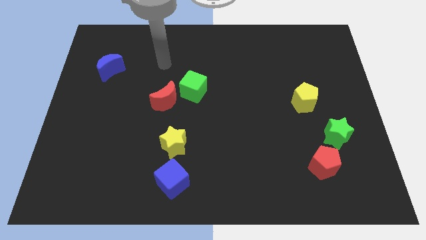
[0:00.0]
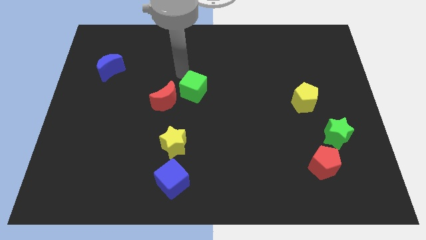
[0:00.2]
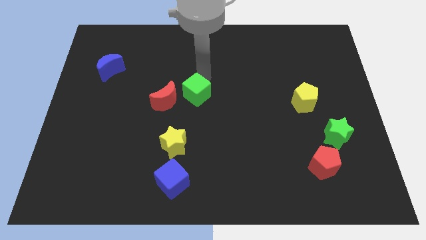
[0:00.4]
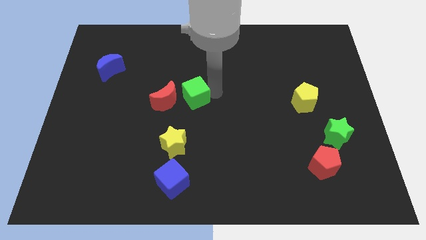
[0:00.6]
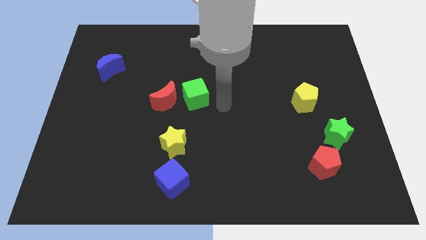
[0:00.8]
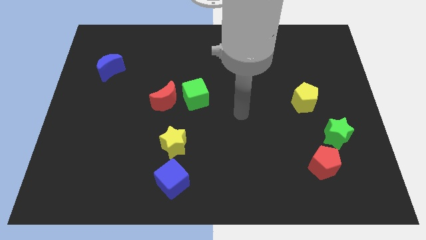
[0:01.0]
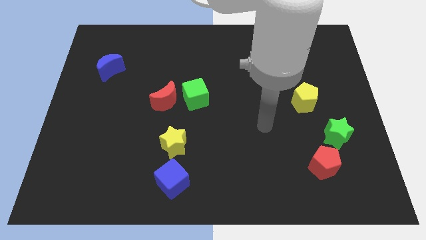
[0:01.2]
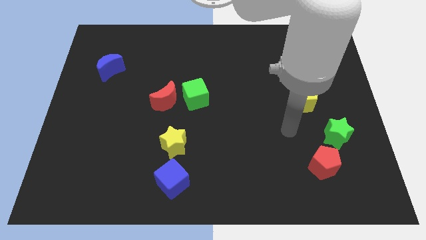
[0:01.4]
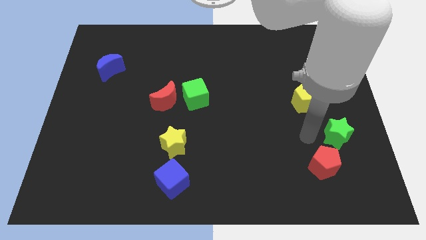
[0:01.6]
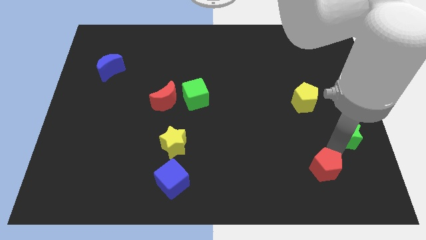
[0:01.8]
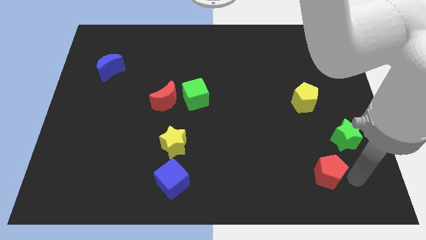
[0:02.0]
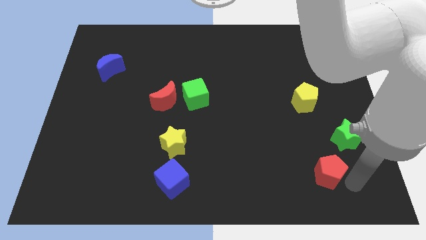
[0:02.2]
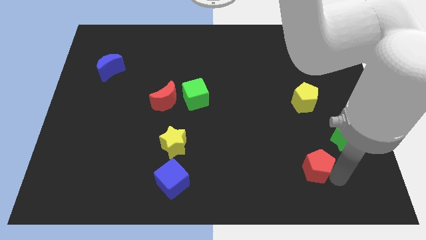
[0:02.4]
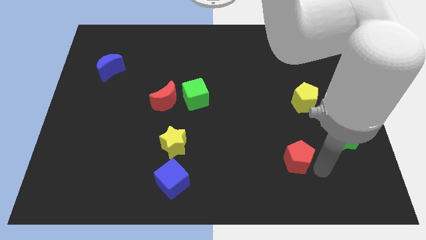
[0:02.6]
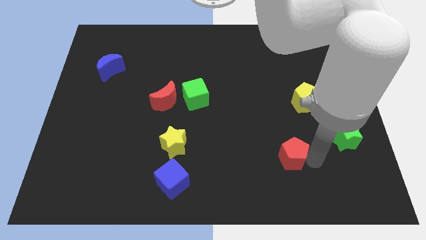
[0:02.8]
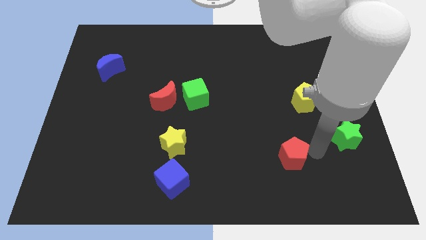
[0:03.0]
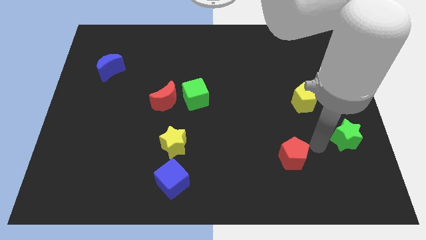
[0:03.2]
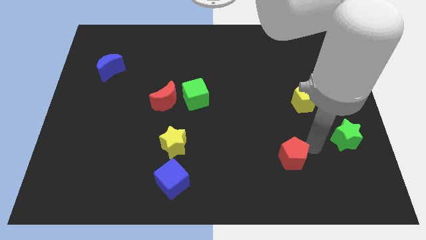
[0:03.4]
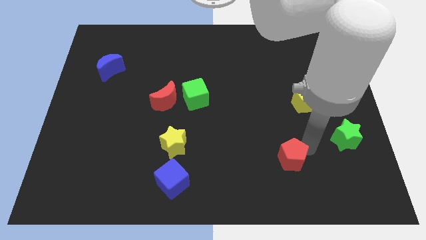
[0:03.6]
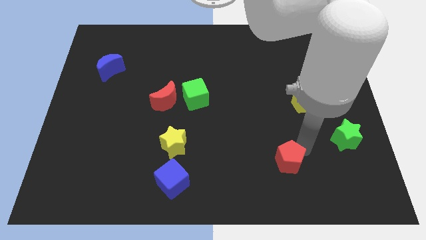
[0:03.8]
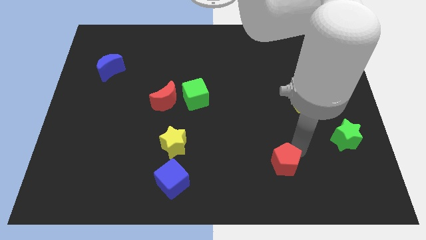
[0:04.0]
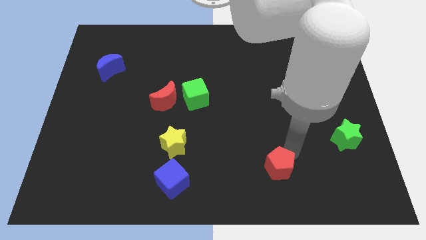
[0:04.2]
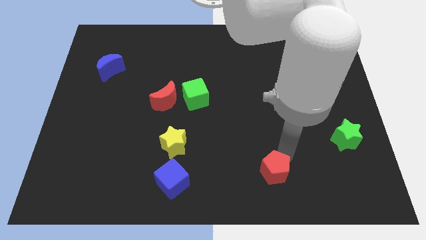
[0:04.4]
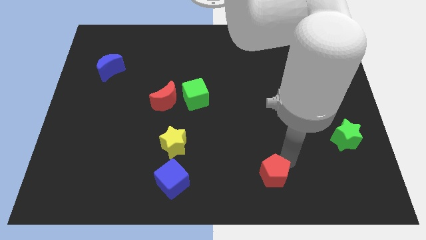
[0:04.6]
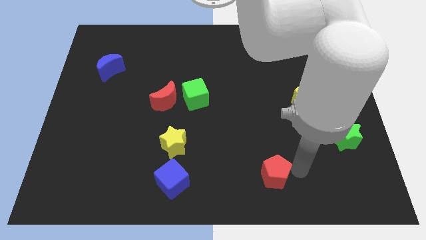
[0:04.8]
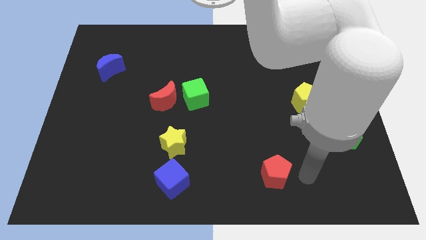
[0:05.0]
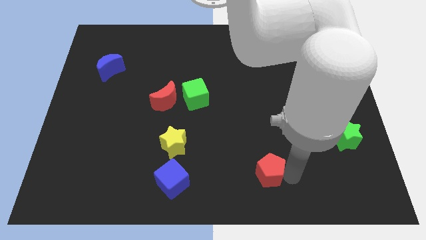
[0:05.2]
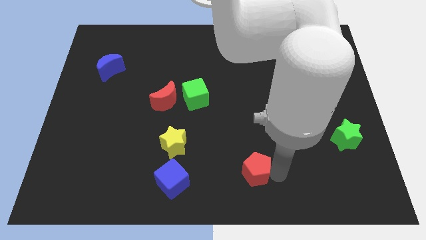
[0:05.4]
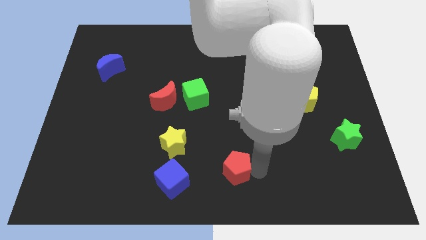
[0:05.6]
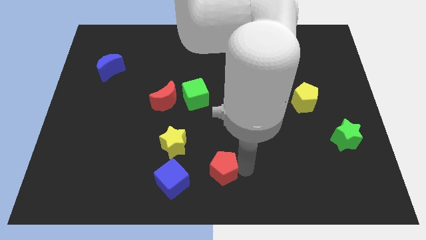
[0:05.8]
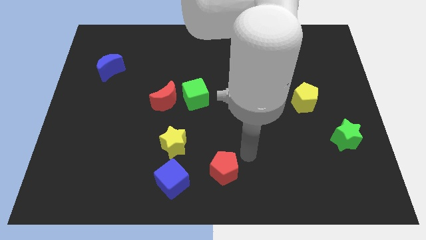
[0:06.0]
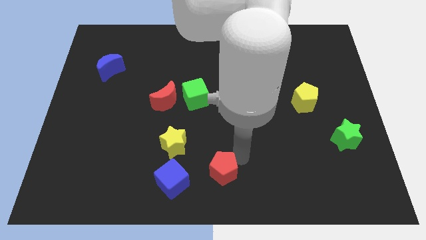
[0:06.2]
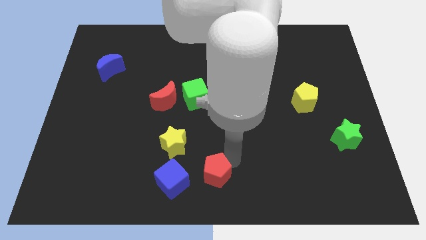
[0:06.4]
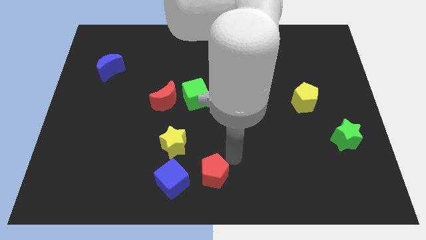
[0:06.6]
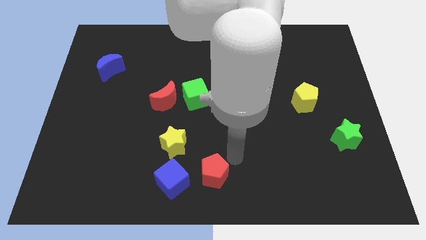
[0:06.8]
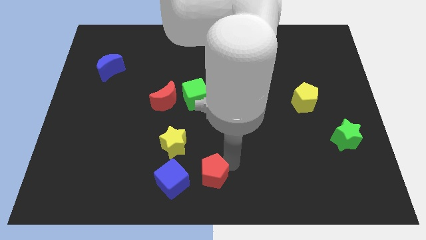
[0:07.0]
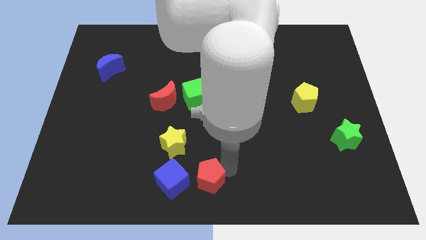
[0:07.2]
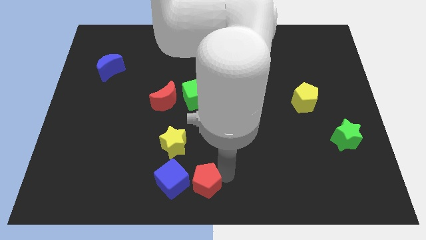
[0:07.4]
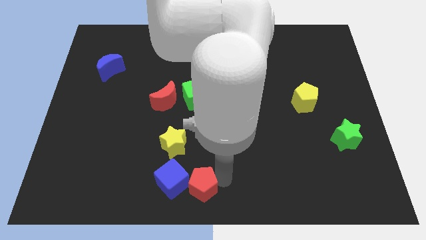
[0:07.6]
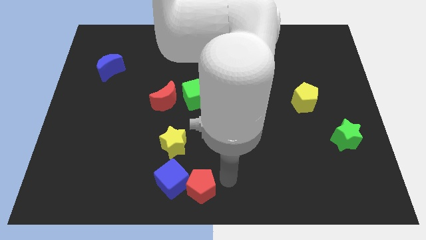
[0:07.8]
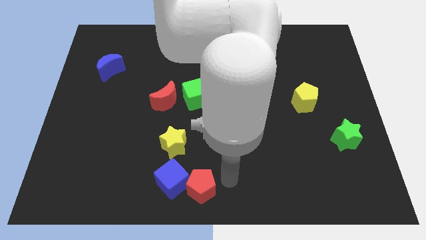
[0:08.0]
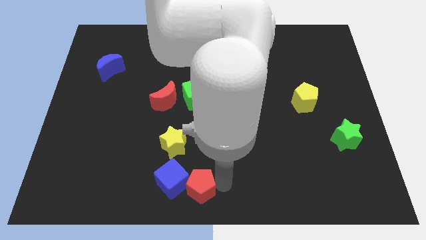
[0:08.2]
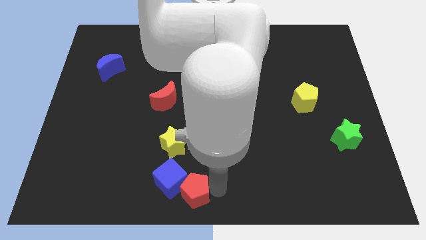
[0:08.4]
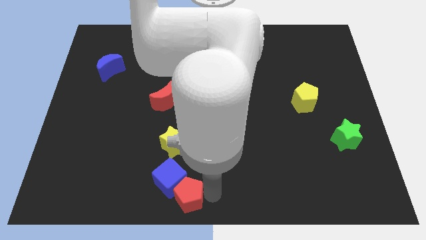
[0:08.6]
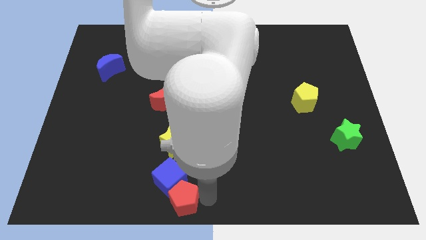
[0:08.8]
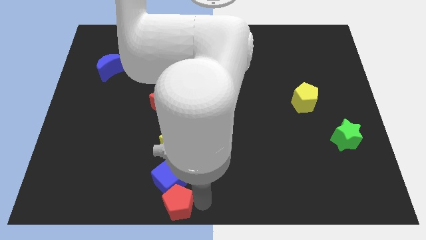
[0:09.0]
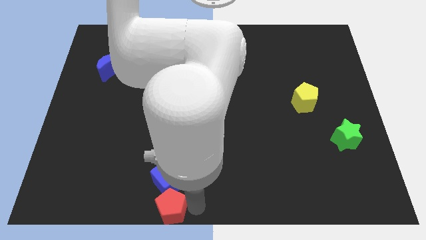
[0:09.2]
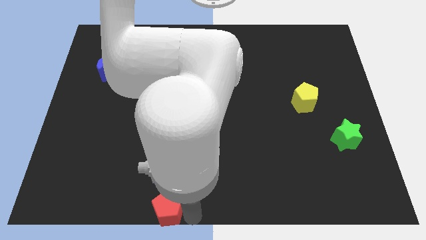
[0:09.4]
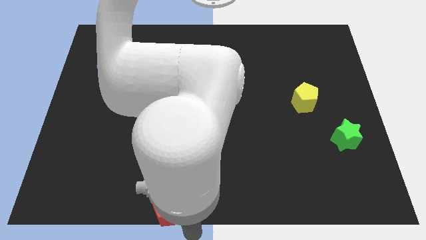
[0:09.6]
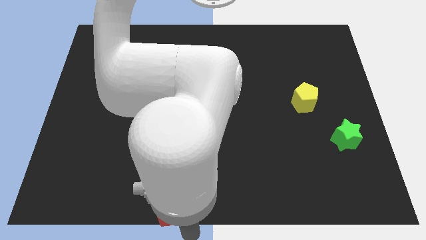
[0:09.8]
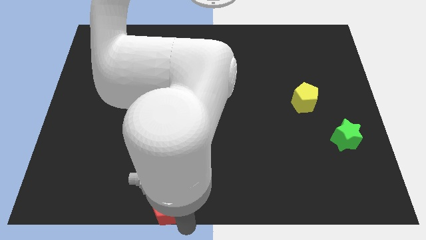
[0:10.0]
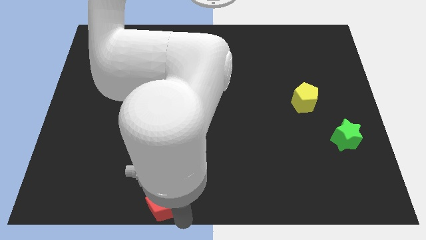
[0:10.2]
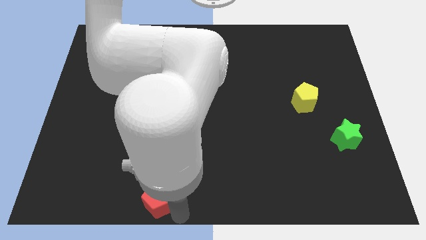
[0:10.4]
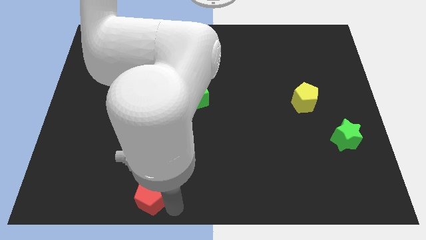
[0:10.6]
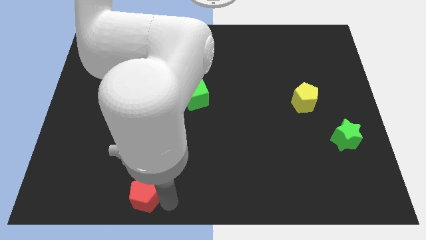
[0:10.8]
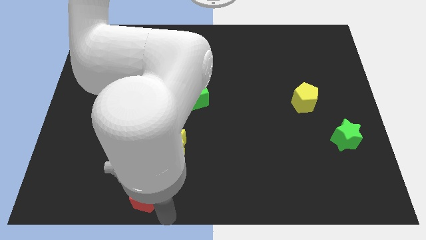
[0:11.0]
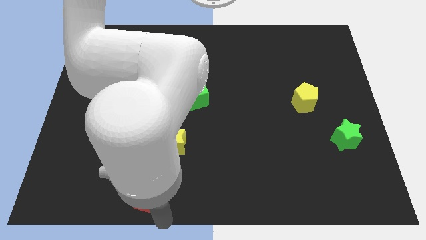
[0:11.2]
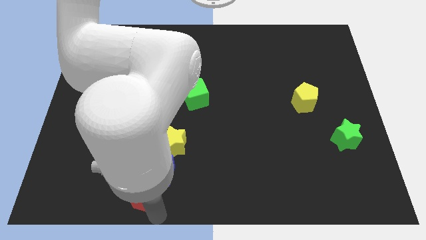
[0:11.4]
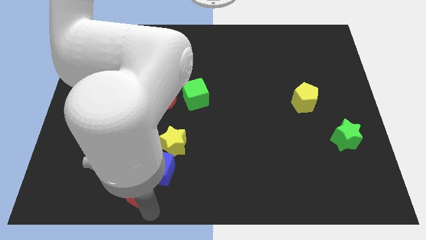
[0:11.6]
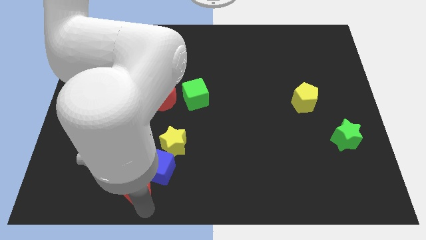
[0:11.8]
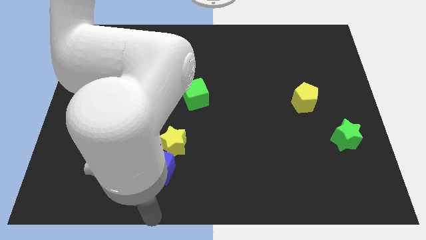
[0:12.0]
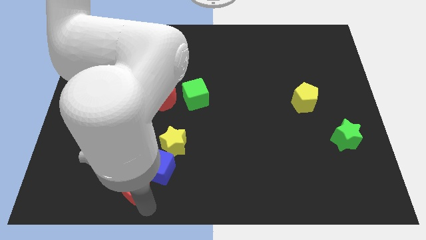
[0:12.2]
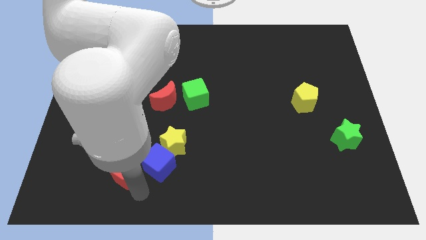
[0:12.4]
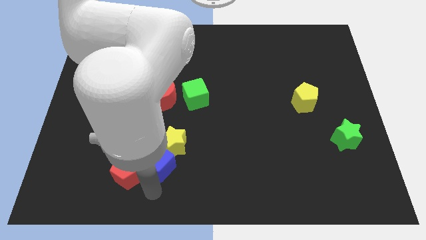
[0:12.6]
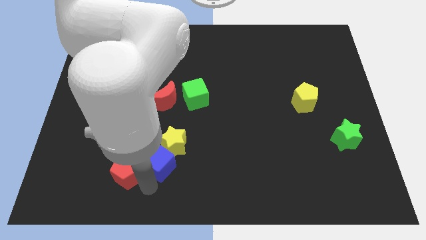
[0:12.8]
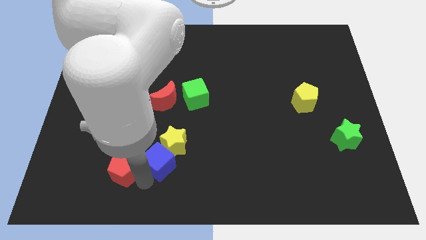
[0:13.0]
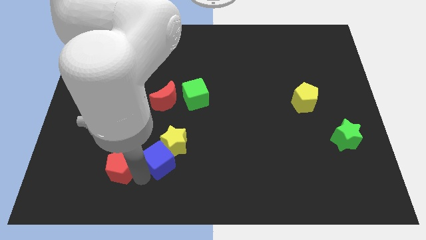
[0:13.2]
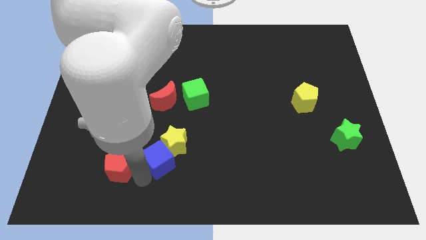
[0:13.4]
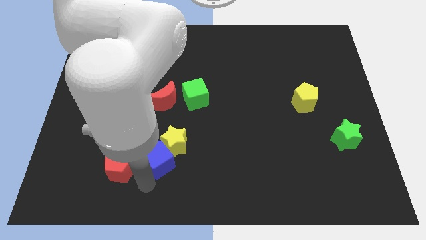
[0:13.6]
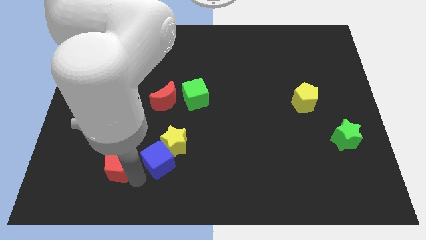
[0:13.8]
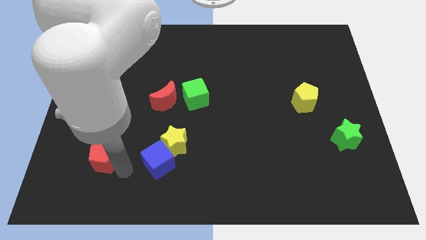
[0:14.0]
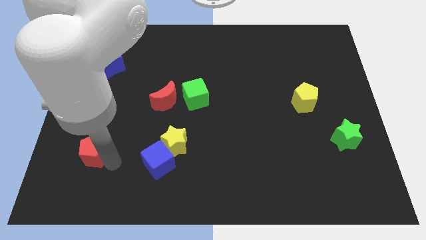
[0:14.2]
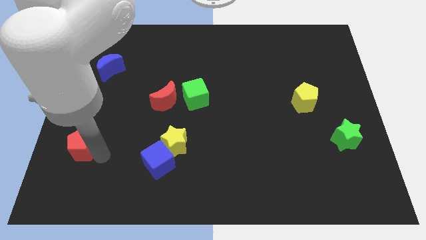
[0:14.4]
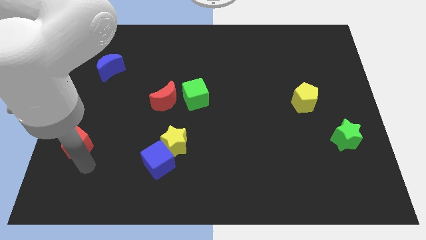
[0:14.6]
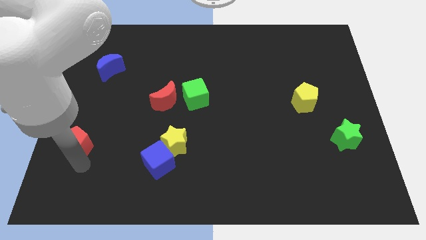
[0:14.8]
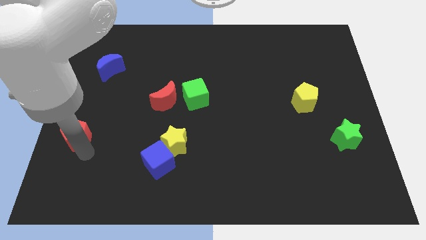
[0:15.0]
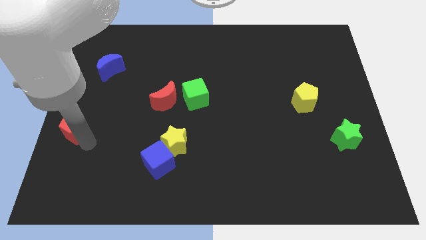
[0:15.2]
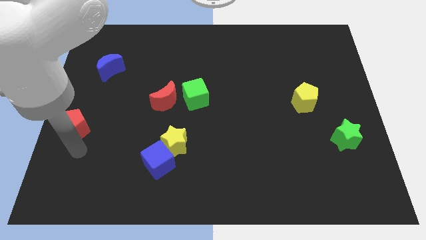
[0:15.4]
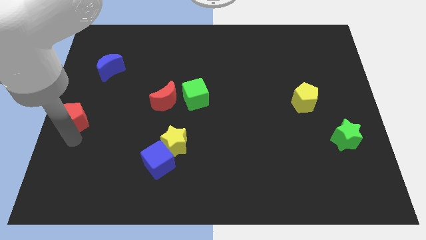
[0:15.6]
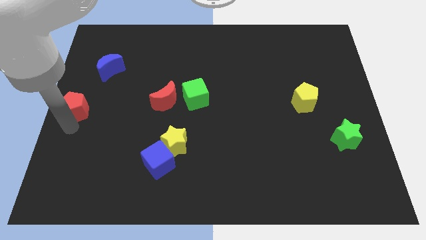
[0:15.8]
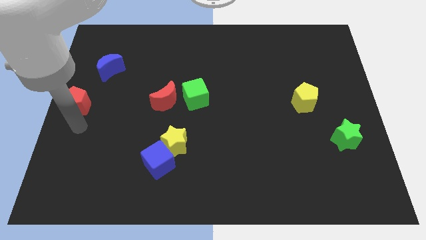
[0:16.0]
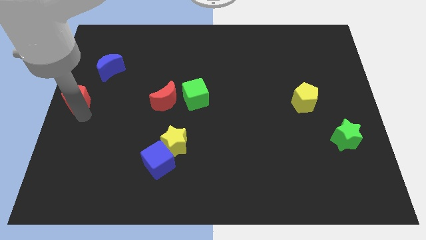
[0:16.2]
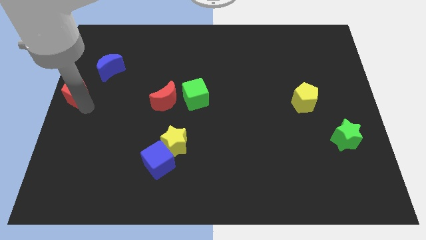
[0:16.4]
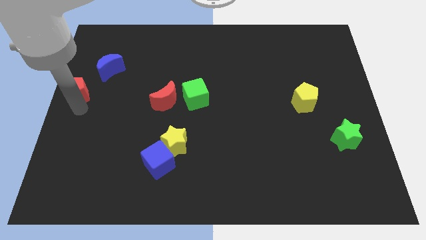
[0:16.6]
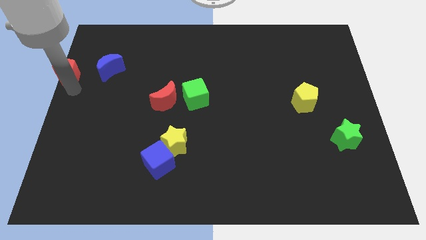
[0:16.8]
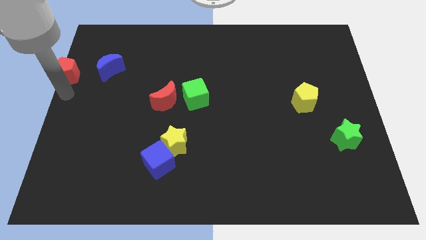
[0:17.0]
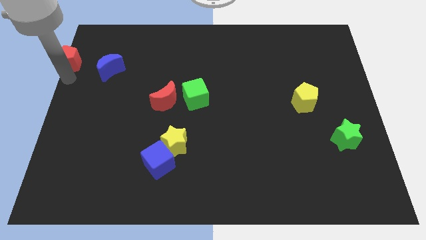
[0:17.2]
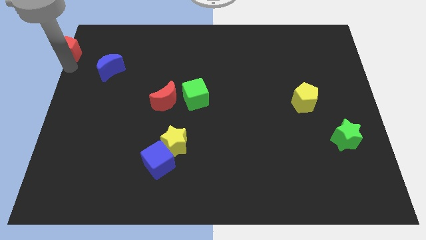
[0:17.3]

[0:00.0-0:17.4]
push the red pentagon to the top left
